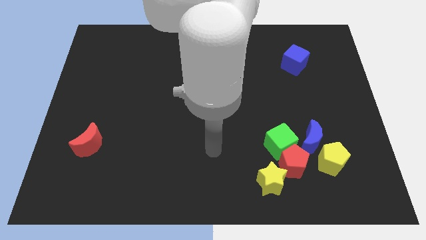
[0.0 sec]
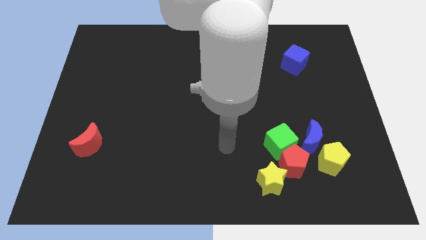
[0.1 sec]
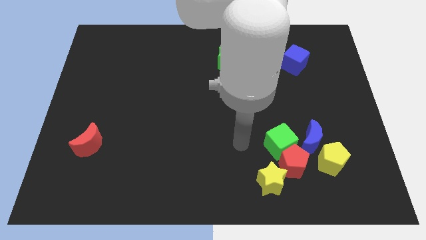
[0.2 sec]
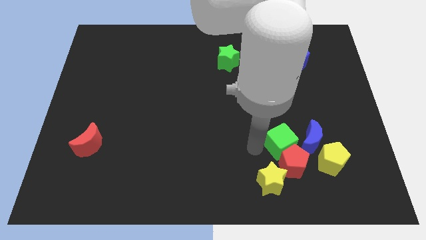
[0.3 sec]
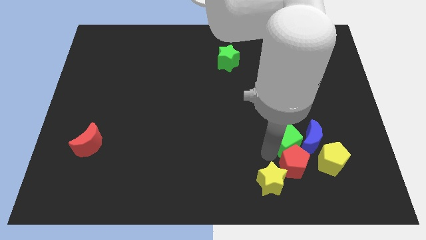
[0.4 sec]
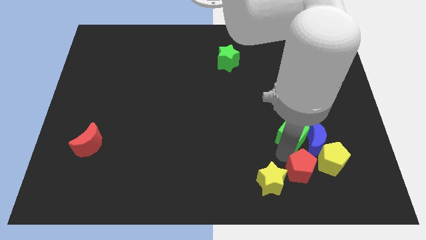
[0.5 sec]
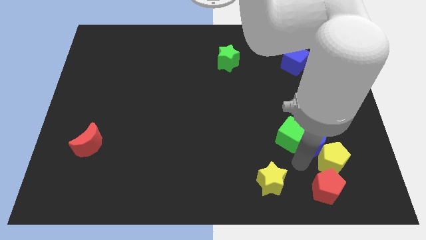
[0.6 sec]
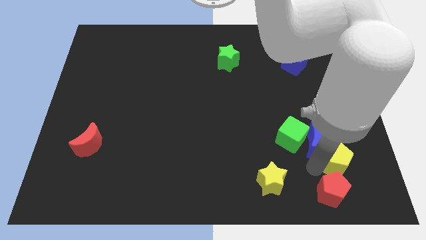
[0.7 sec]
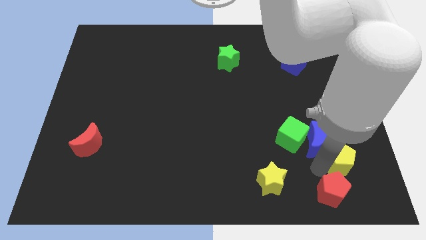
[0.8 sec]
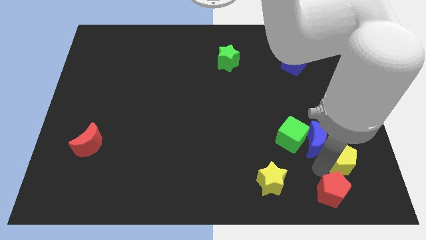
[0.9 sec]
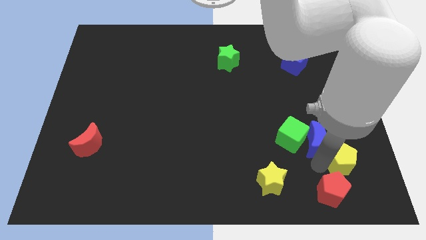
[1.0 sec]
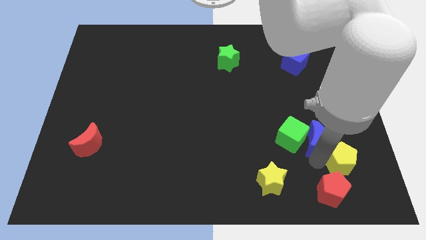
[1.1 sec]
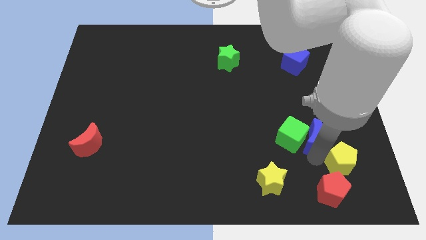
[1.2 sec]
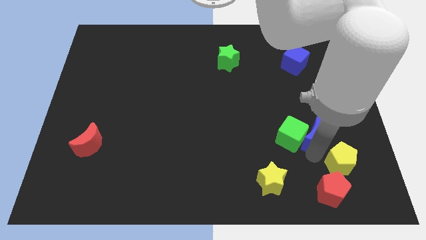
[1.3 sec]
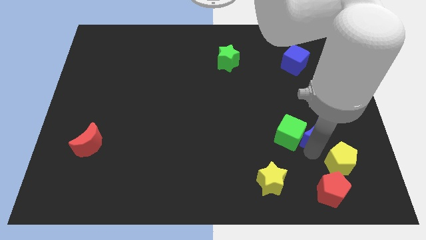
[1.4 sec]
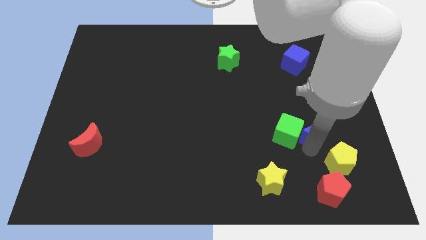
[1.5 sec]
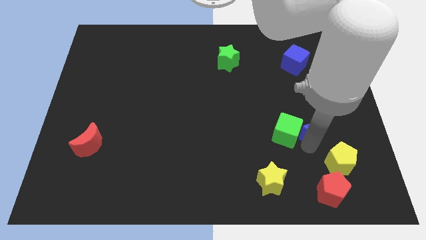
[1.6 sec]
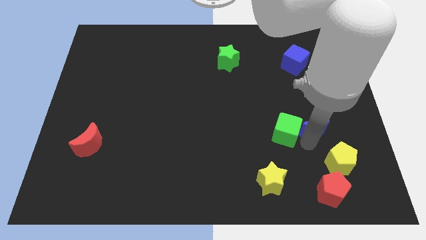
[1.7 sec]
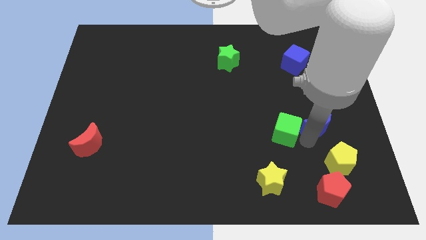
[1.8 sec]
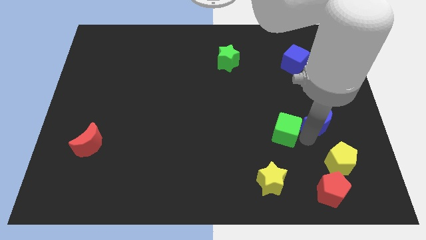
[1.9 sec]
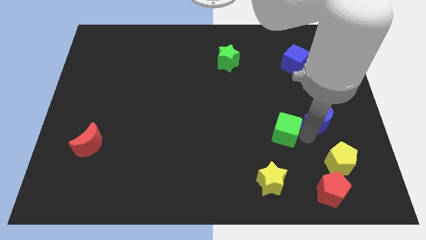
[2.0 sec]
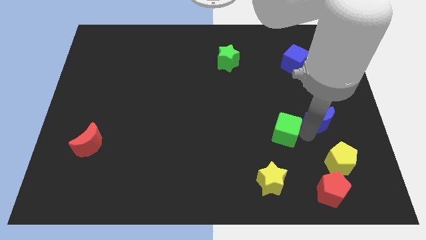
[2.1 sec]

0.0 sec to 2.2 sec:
separate the blue moon from the yellow pentagon, green cube, and red pentagon

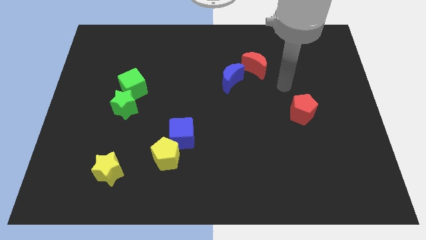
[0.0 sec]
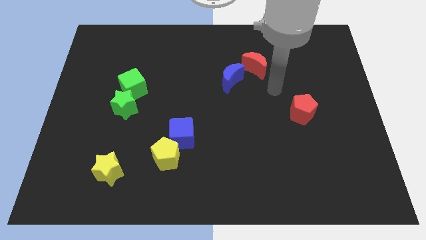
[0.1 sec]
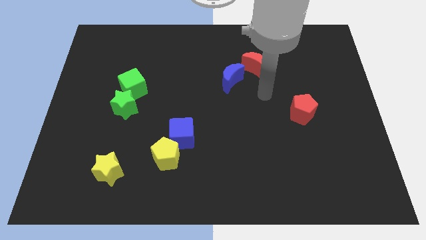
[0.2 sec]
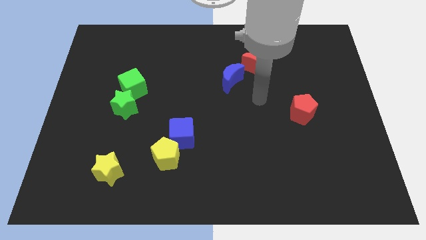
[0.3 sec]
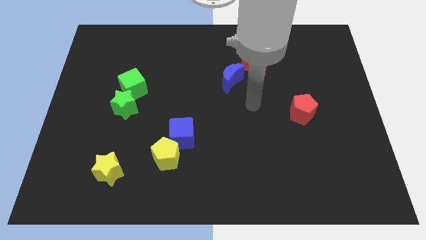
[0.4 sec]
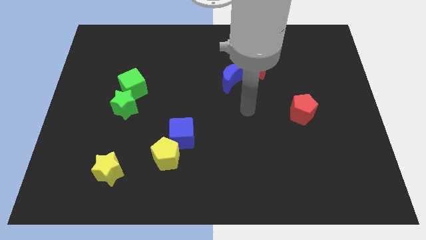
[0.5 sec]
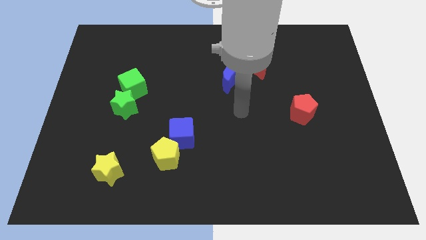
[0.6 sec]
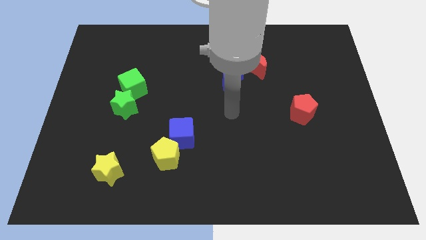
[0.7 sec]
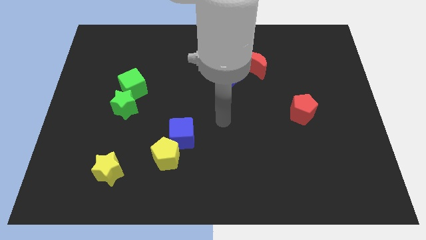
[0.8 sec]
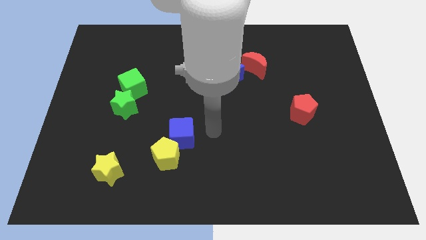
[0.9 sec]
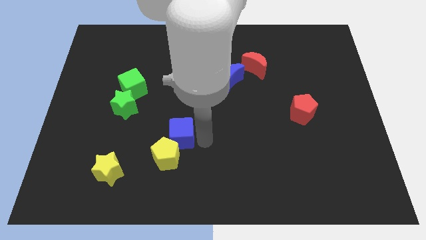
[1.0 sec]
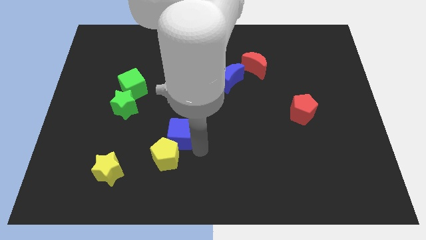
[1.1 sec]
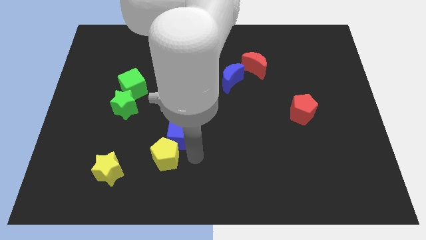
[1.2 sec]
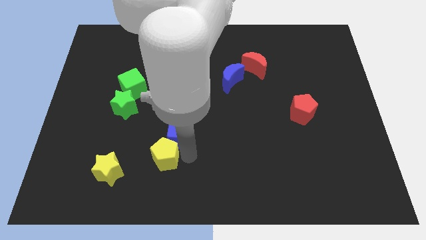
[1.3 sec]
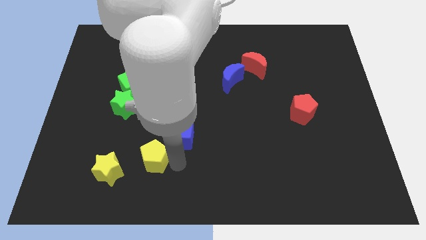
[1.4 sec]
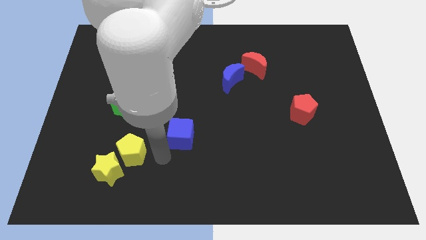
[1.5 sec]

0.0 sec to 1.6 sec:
pull the blue cube apart from the yellow pentagon

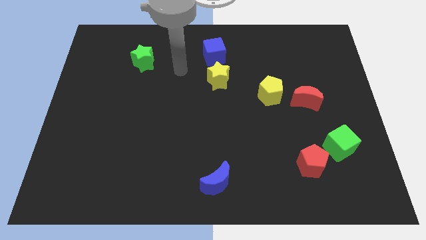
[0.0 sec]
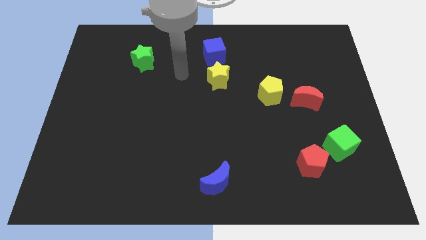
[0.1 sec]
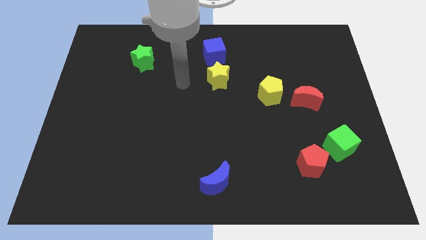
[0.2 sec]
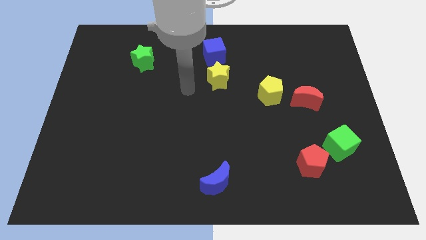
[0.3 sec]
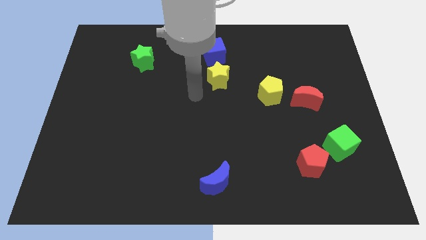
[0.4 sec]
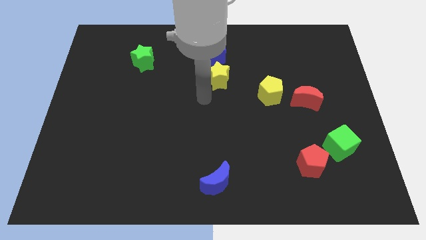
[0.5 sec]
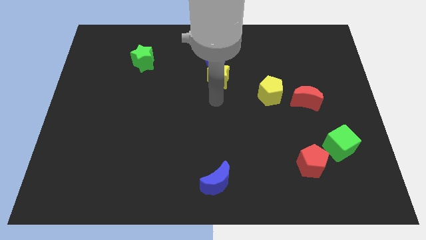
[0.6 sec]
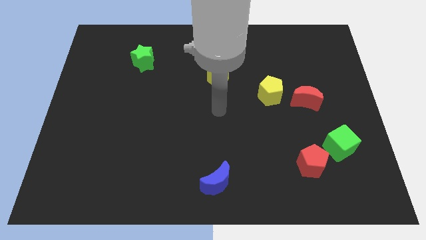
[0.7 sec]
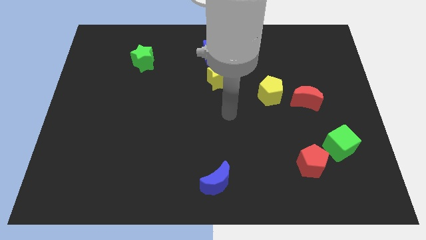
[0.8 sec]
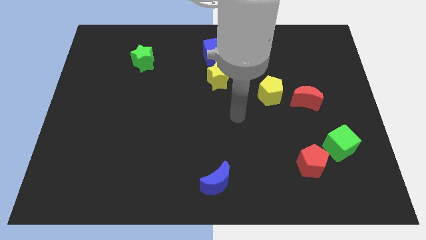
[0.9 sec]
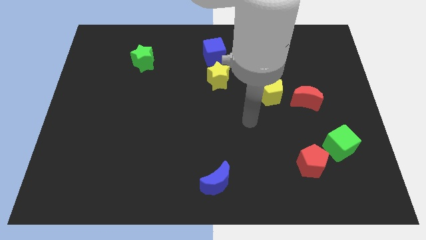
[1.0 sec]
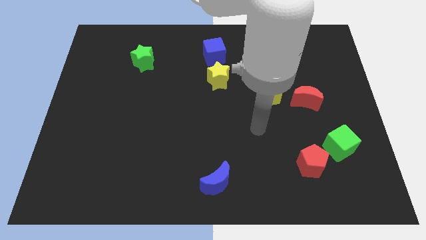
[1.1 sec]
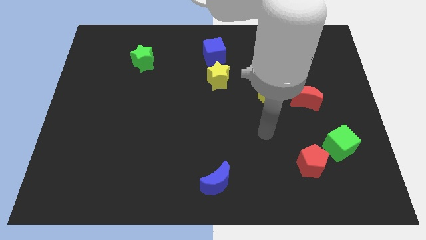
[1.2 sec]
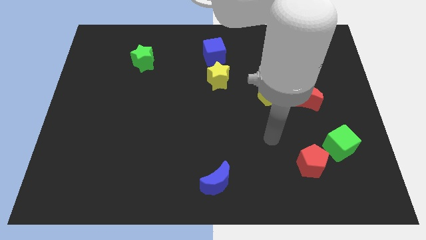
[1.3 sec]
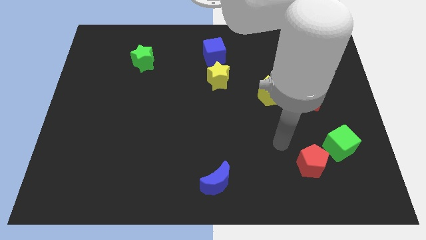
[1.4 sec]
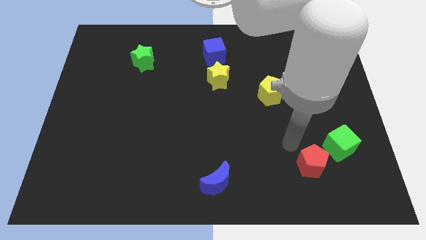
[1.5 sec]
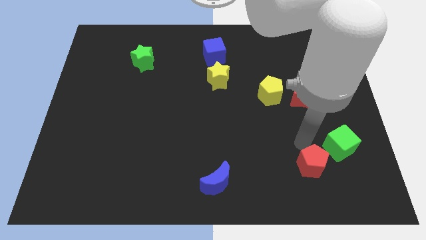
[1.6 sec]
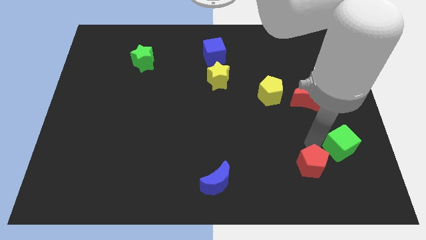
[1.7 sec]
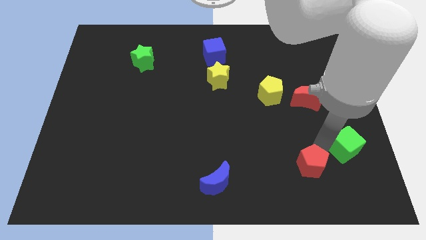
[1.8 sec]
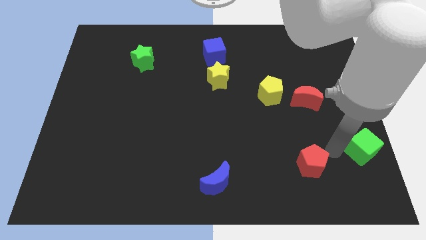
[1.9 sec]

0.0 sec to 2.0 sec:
separate the red pentagon from the green cube

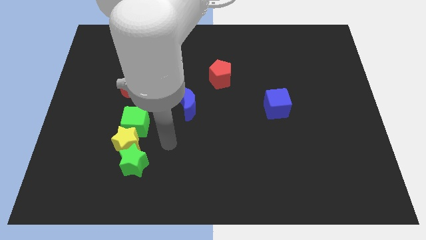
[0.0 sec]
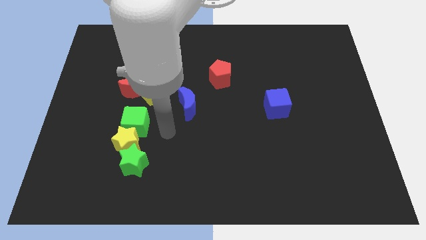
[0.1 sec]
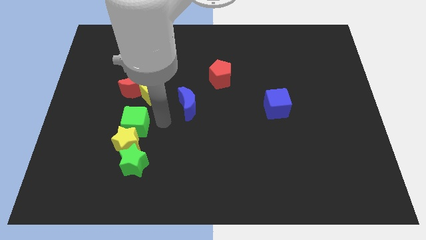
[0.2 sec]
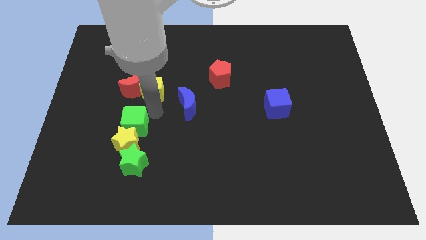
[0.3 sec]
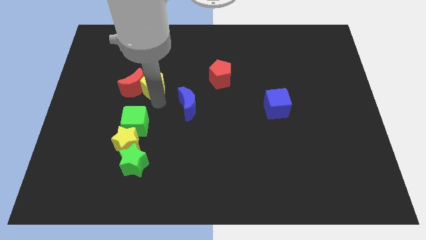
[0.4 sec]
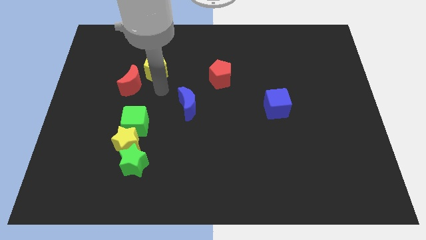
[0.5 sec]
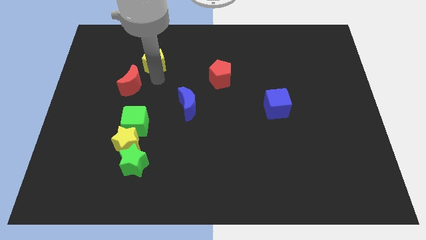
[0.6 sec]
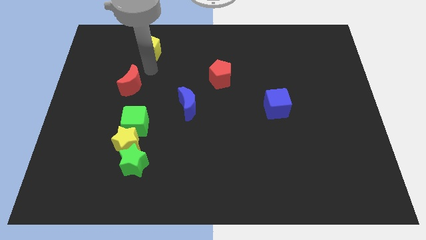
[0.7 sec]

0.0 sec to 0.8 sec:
move the red moon away from the yellow pentagon

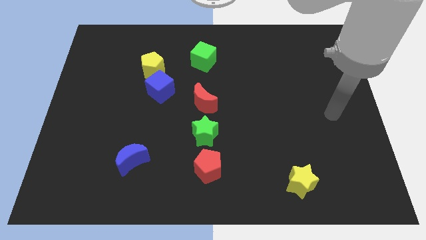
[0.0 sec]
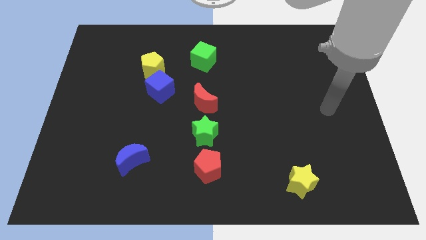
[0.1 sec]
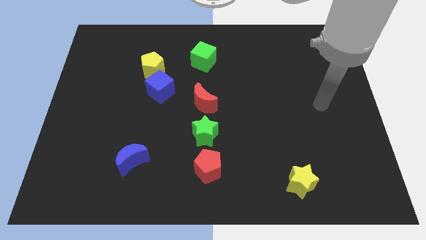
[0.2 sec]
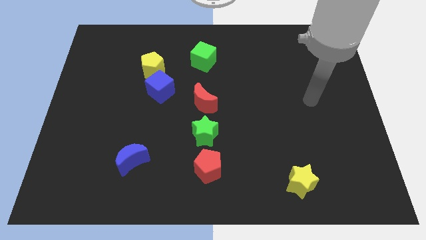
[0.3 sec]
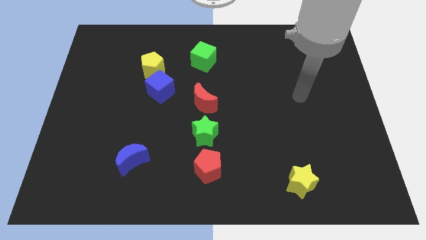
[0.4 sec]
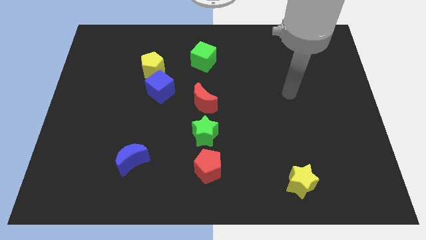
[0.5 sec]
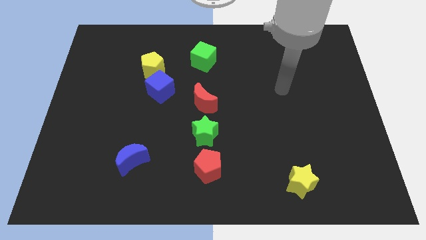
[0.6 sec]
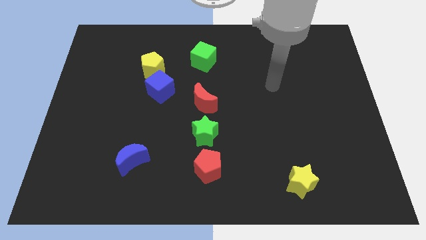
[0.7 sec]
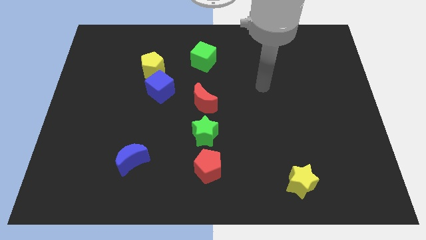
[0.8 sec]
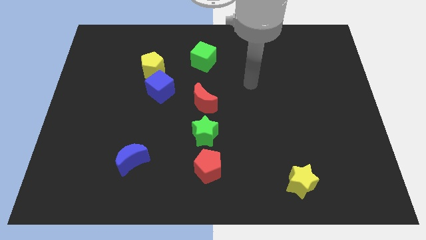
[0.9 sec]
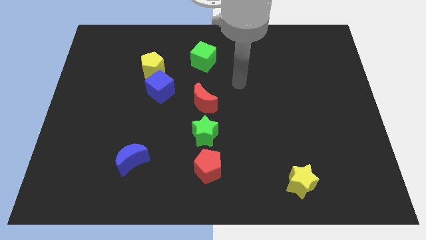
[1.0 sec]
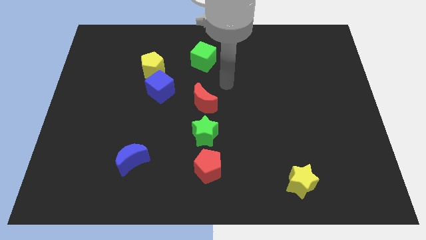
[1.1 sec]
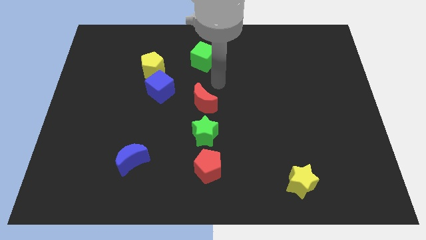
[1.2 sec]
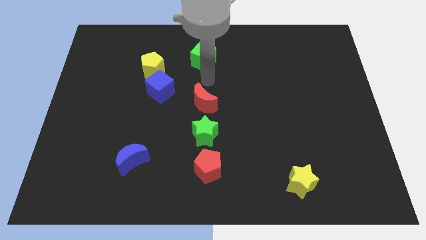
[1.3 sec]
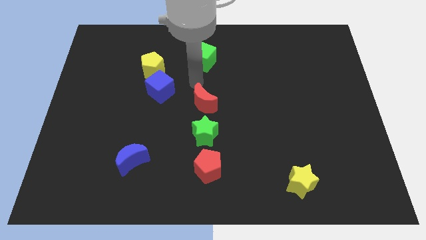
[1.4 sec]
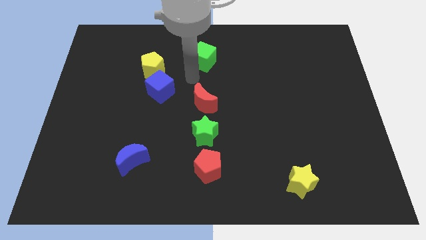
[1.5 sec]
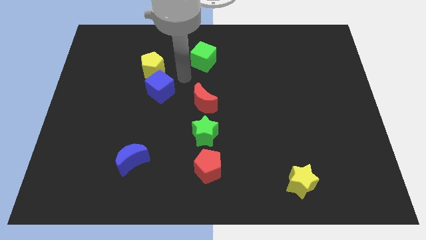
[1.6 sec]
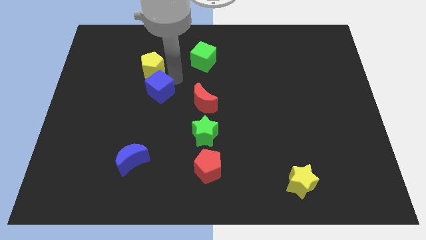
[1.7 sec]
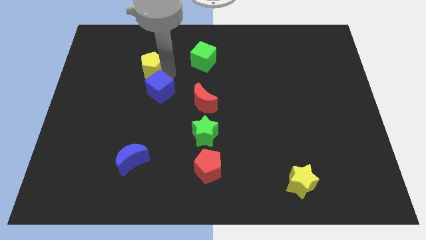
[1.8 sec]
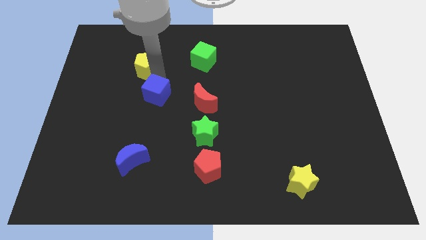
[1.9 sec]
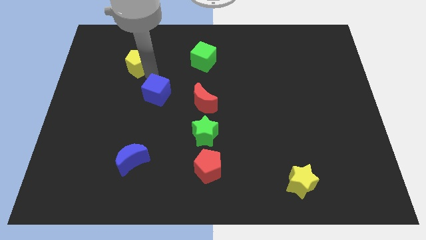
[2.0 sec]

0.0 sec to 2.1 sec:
separate the blue cube from the yellow pentagon

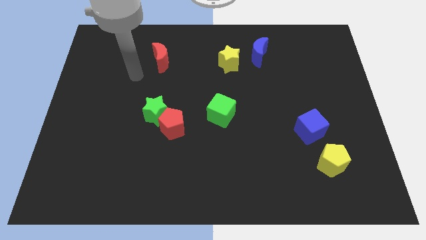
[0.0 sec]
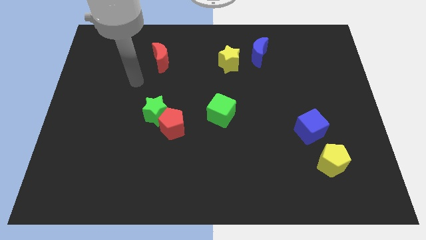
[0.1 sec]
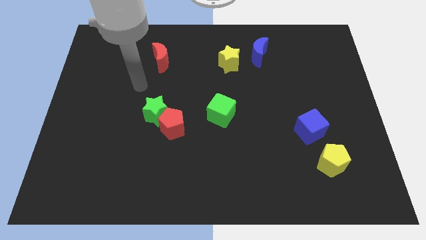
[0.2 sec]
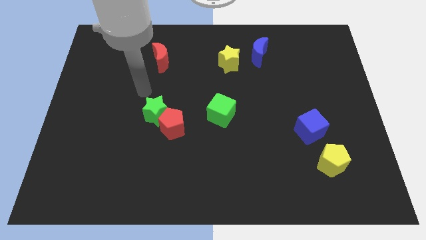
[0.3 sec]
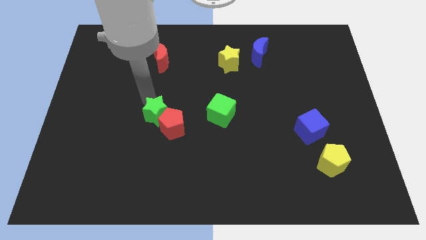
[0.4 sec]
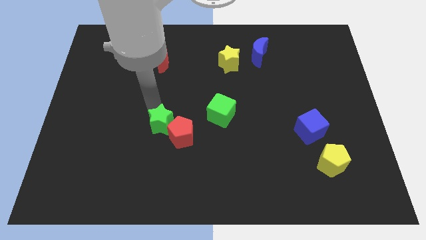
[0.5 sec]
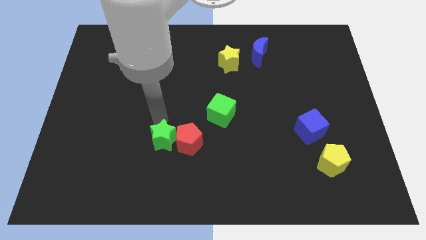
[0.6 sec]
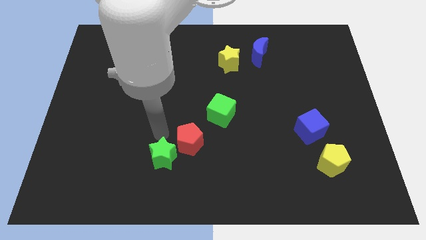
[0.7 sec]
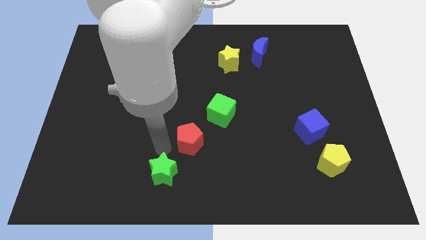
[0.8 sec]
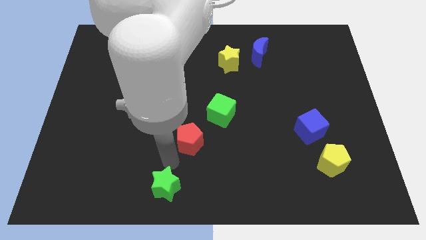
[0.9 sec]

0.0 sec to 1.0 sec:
separate the red pentagon from the green star
